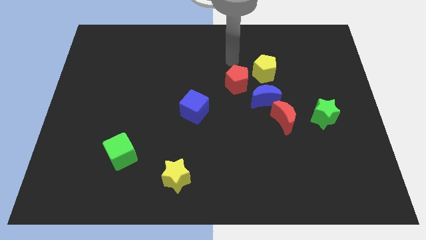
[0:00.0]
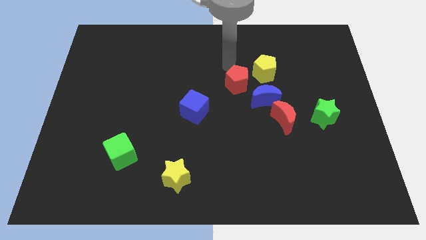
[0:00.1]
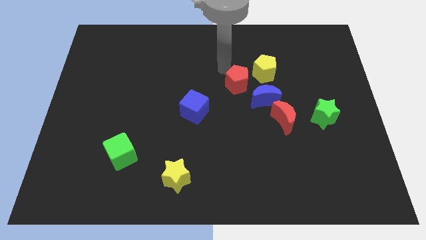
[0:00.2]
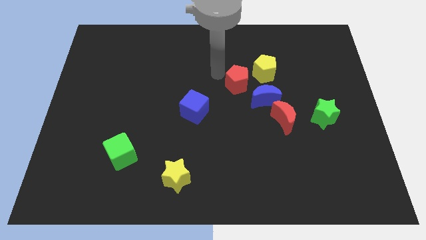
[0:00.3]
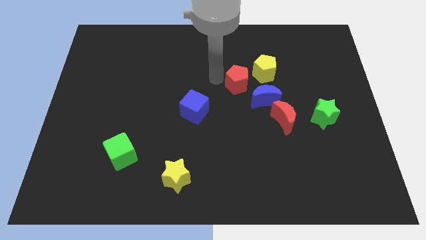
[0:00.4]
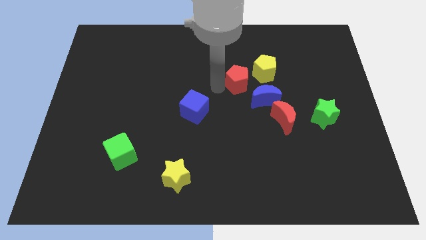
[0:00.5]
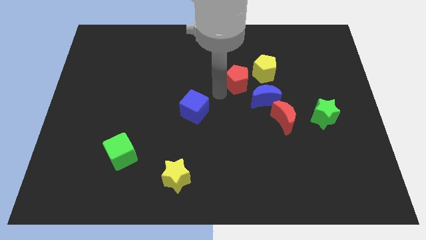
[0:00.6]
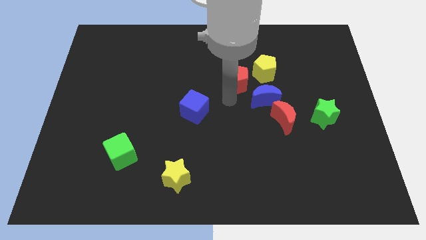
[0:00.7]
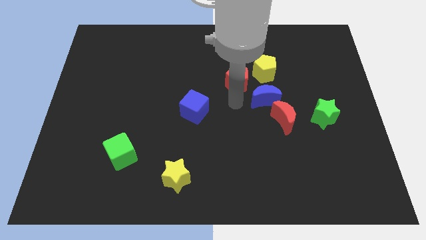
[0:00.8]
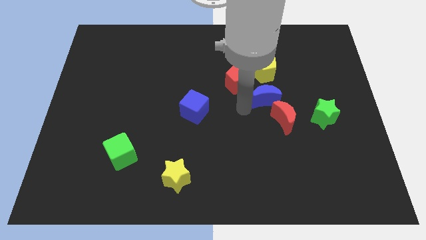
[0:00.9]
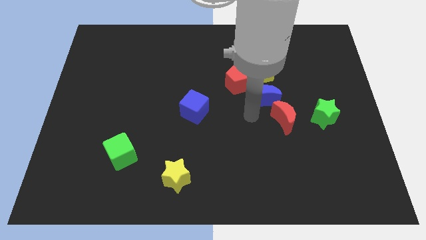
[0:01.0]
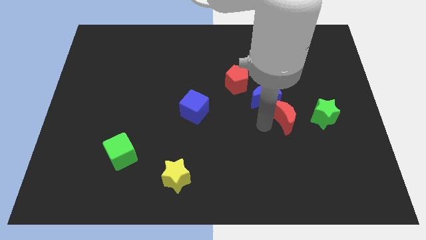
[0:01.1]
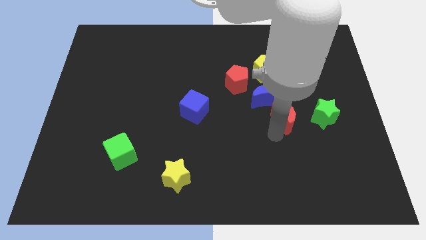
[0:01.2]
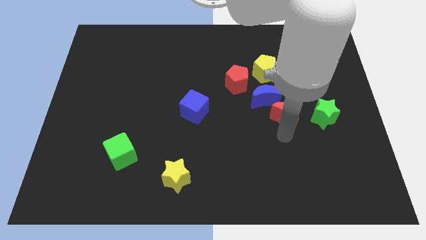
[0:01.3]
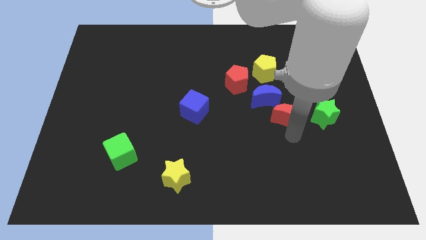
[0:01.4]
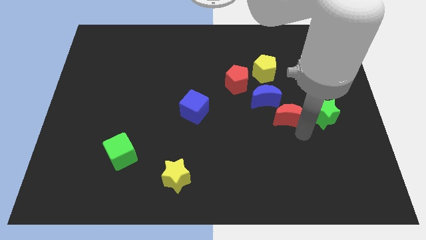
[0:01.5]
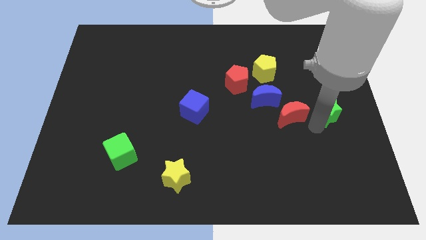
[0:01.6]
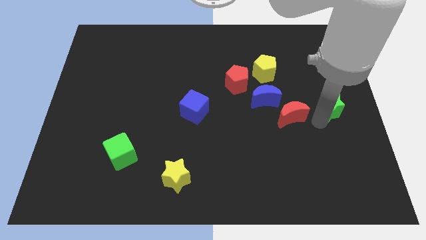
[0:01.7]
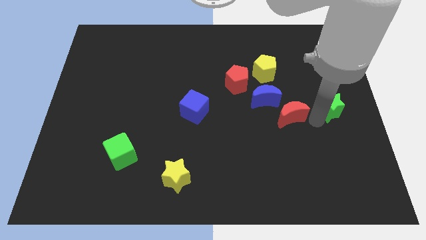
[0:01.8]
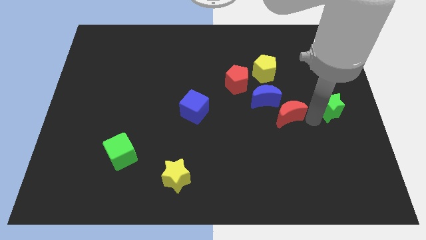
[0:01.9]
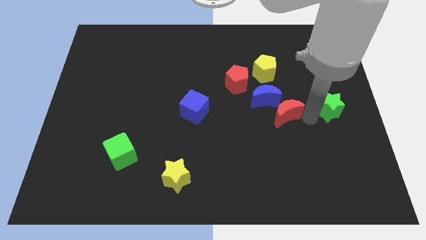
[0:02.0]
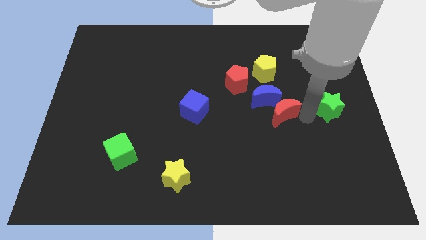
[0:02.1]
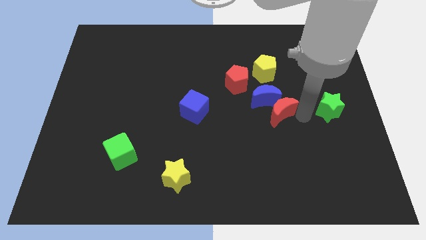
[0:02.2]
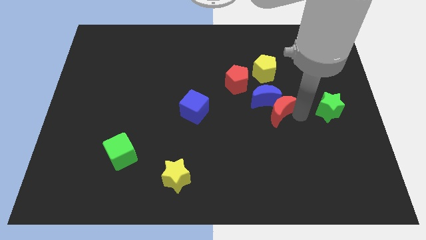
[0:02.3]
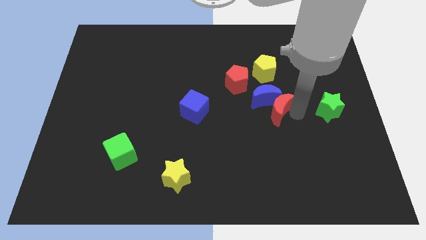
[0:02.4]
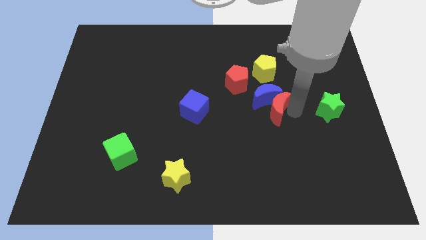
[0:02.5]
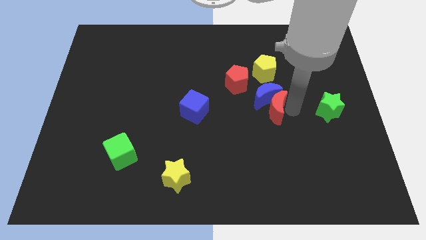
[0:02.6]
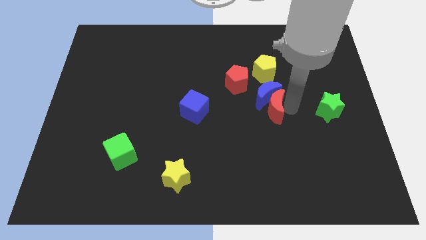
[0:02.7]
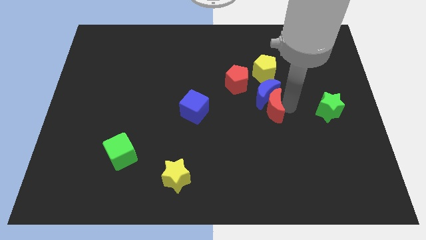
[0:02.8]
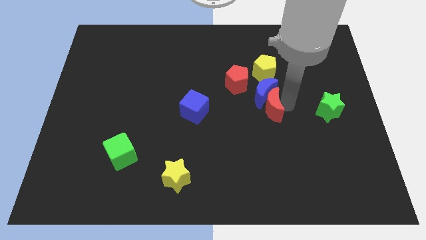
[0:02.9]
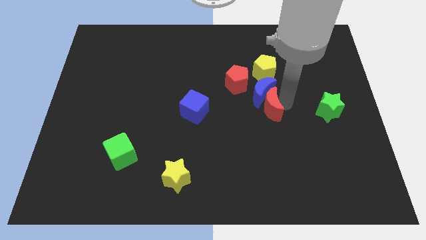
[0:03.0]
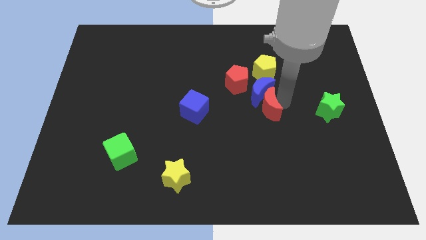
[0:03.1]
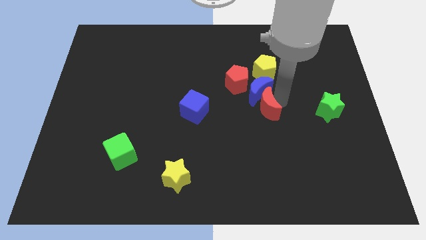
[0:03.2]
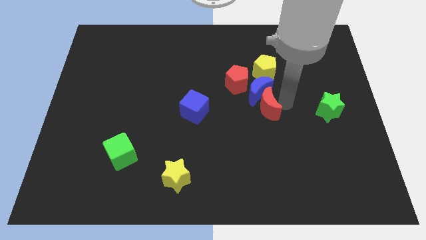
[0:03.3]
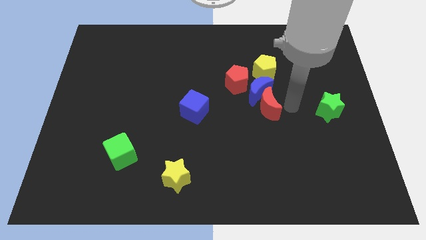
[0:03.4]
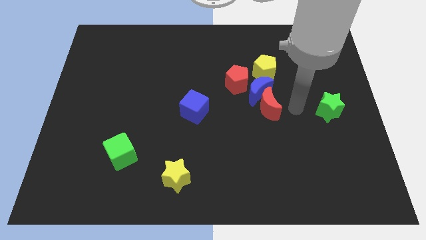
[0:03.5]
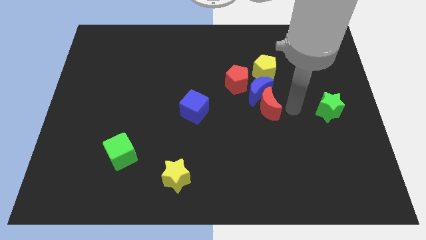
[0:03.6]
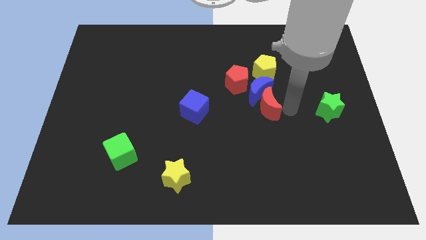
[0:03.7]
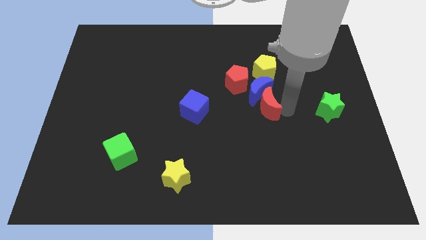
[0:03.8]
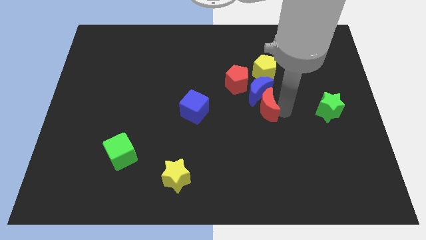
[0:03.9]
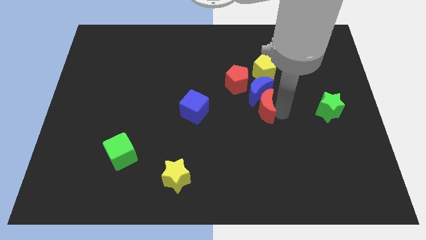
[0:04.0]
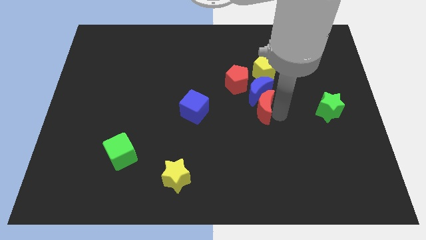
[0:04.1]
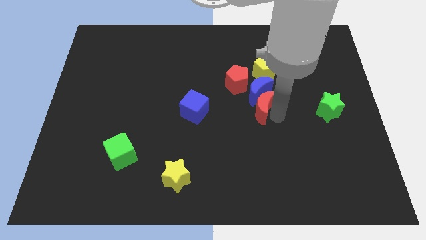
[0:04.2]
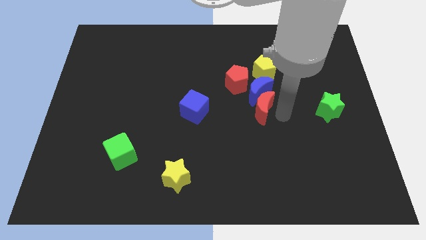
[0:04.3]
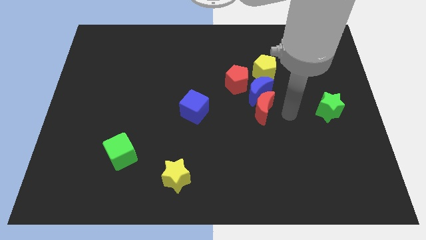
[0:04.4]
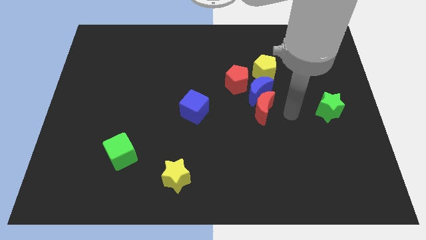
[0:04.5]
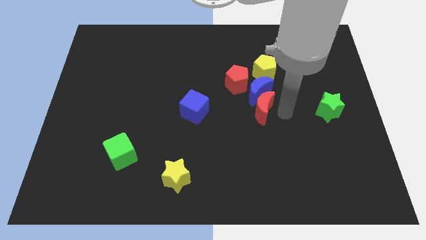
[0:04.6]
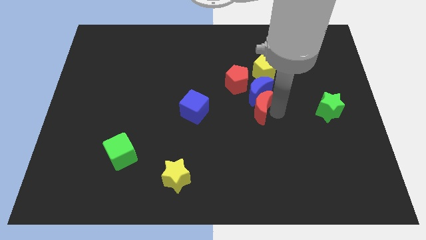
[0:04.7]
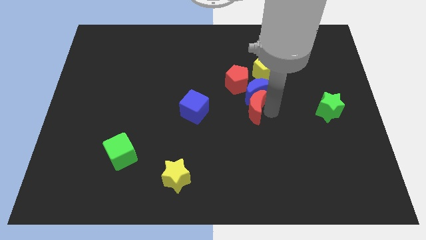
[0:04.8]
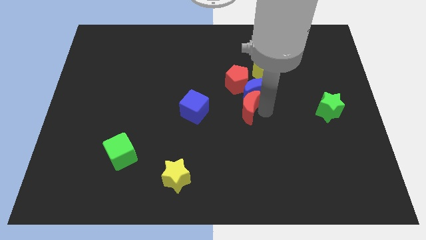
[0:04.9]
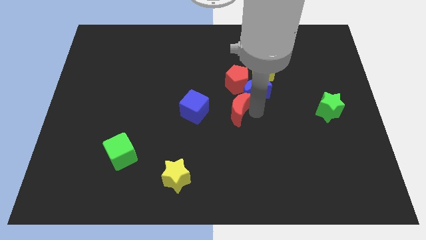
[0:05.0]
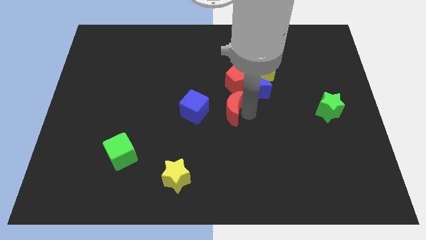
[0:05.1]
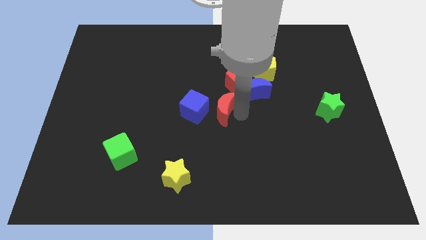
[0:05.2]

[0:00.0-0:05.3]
slide the red moon to the bottom left side of the red pentagon

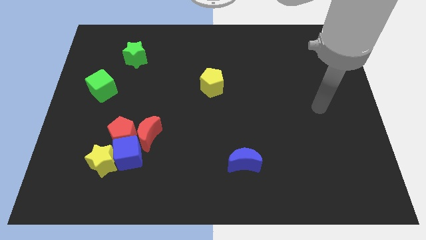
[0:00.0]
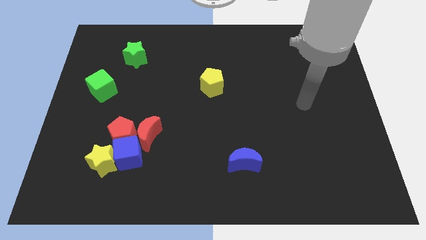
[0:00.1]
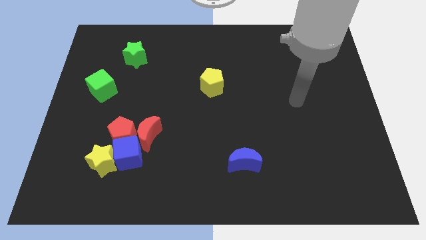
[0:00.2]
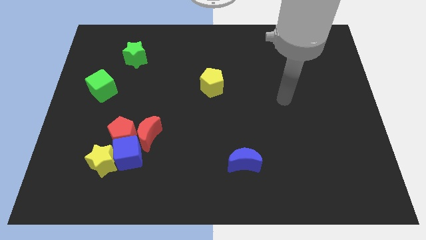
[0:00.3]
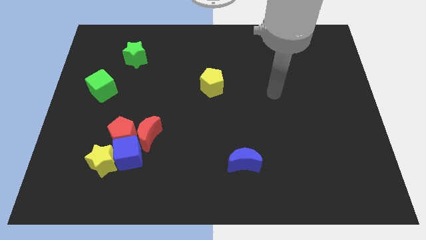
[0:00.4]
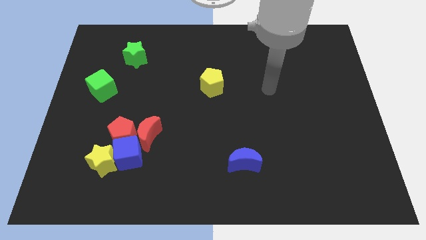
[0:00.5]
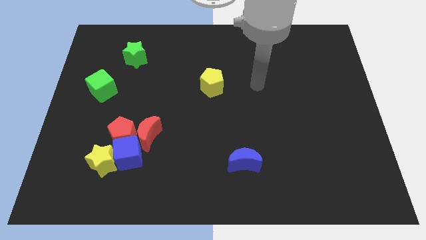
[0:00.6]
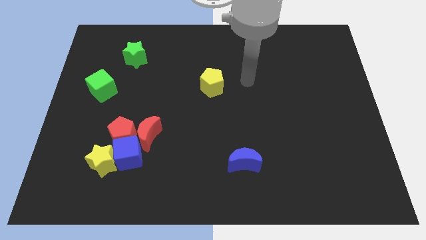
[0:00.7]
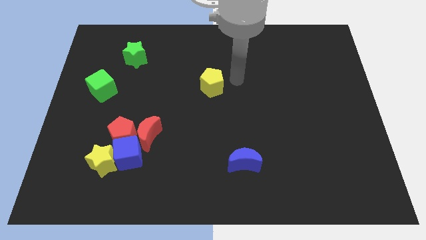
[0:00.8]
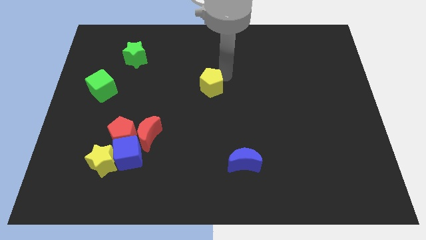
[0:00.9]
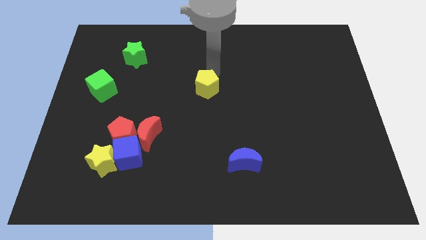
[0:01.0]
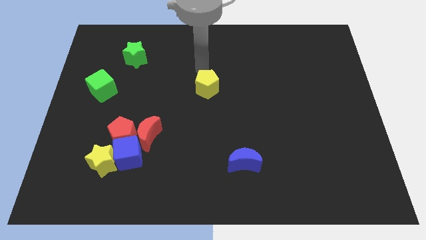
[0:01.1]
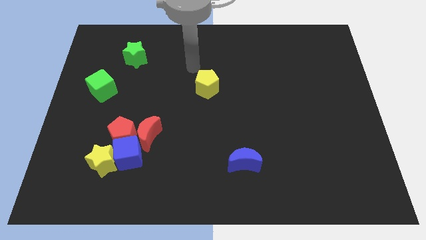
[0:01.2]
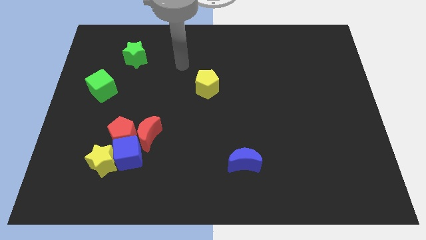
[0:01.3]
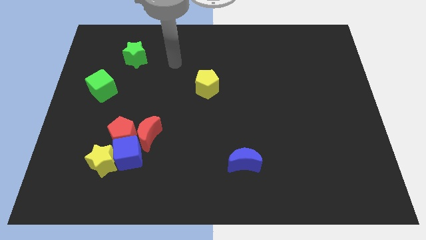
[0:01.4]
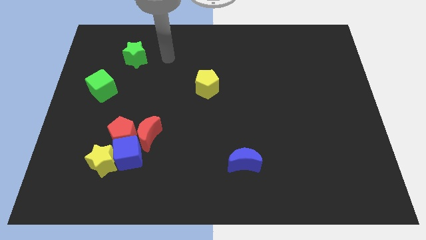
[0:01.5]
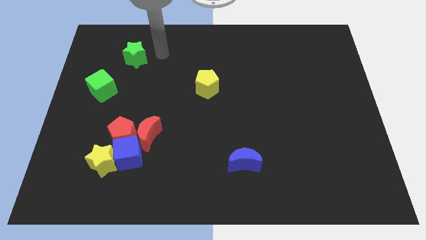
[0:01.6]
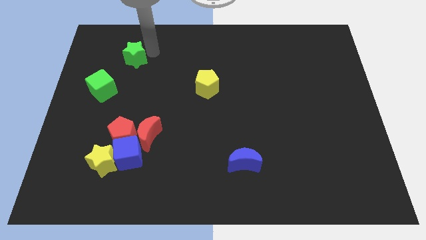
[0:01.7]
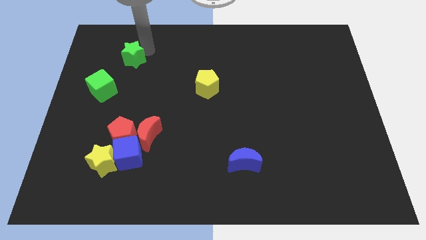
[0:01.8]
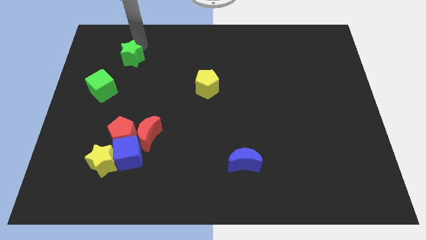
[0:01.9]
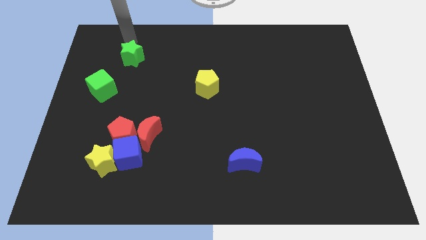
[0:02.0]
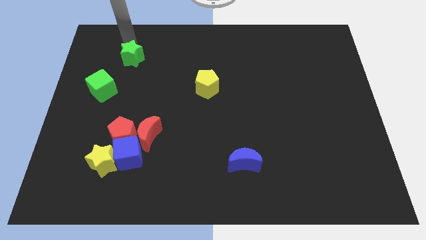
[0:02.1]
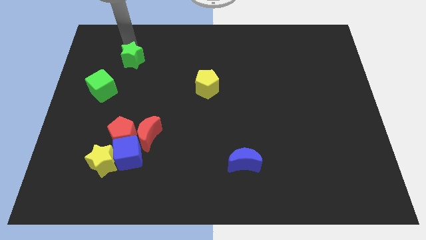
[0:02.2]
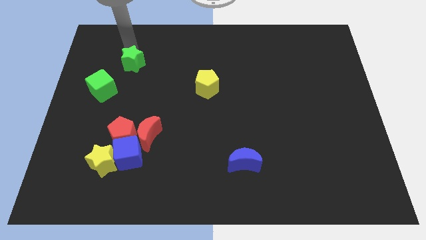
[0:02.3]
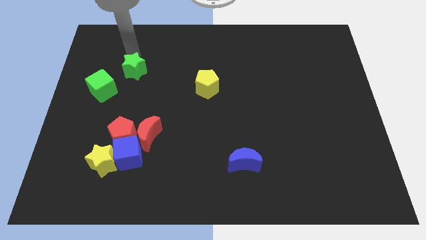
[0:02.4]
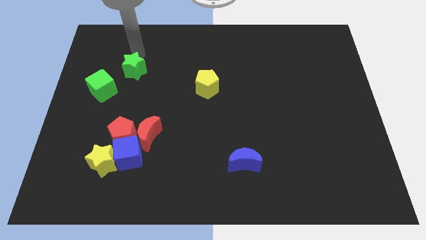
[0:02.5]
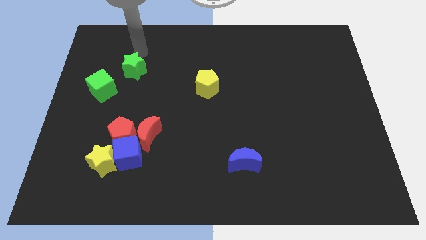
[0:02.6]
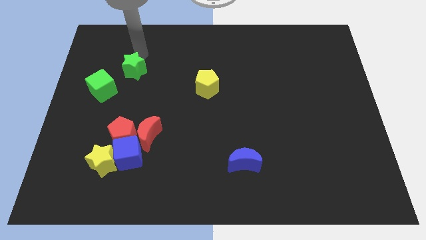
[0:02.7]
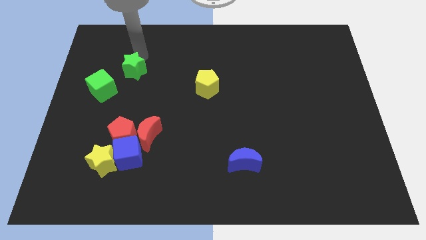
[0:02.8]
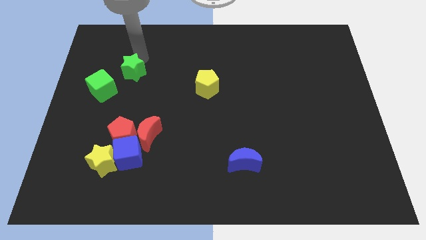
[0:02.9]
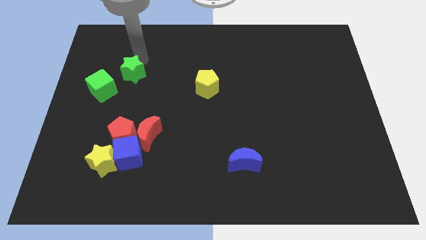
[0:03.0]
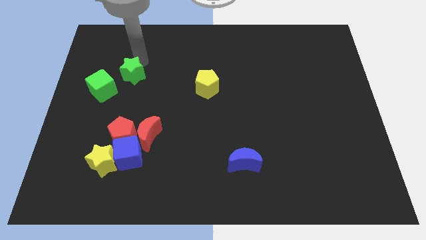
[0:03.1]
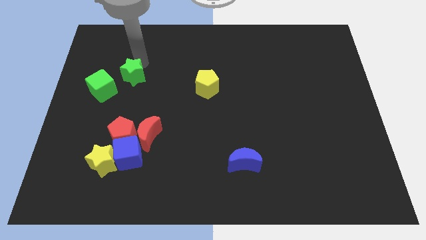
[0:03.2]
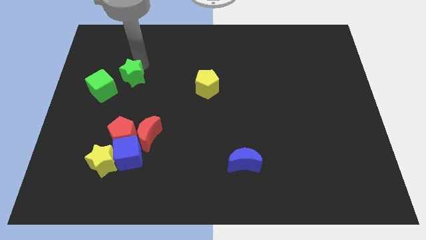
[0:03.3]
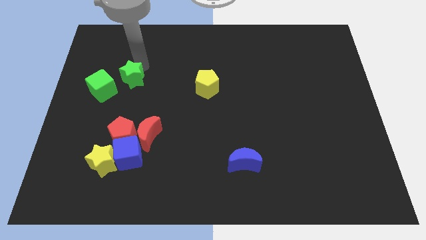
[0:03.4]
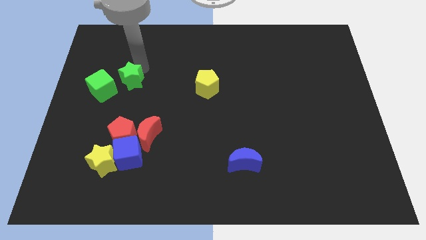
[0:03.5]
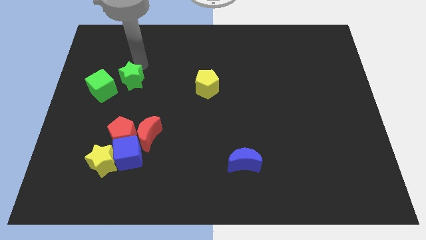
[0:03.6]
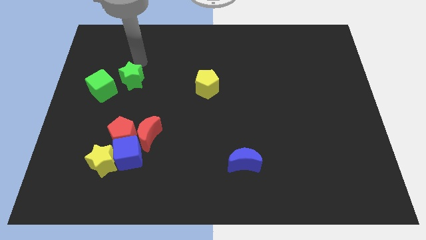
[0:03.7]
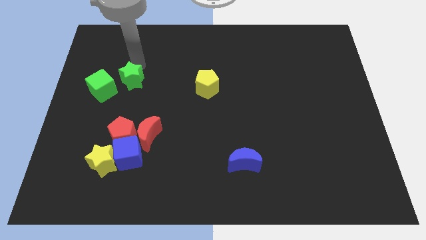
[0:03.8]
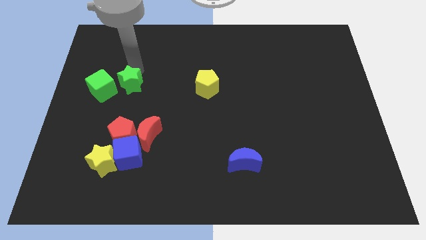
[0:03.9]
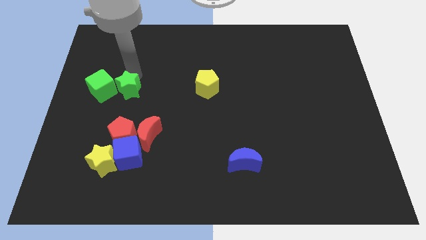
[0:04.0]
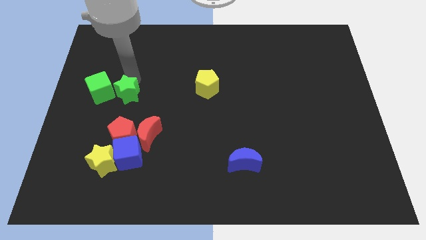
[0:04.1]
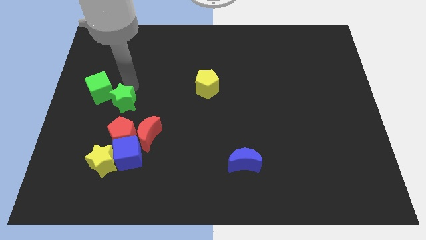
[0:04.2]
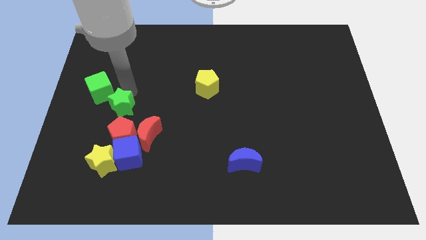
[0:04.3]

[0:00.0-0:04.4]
push the green star to the top of the yellow star
